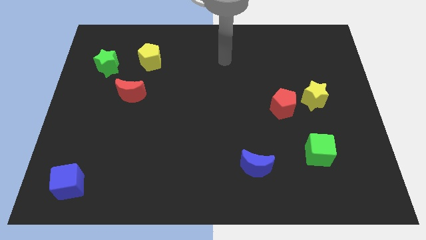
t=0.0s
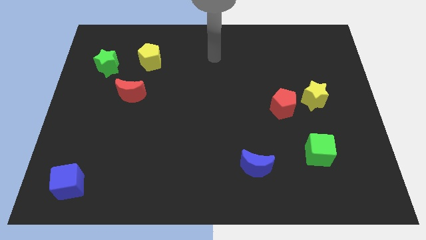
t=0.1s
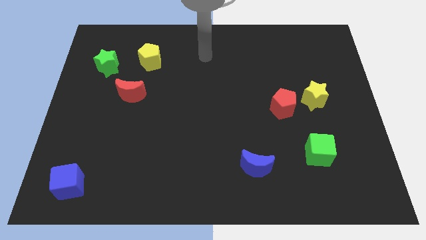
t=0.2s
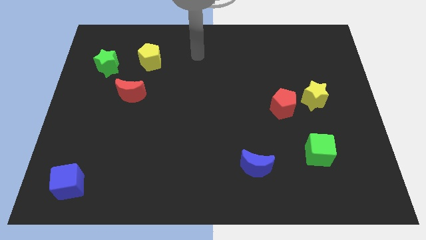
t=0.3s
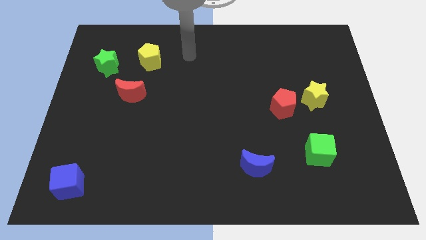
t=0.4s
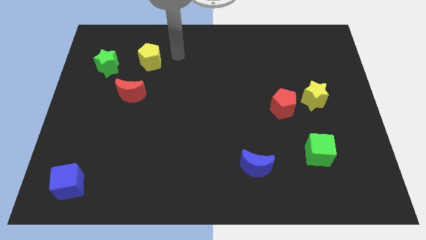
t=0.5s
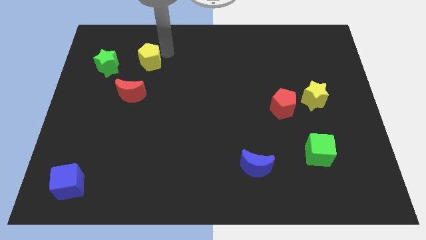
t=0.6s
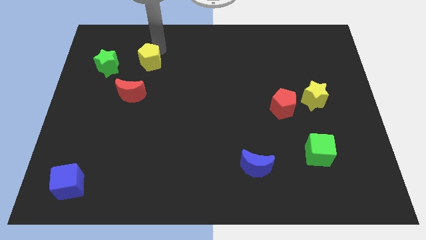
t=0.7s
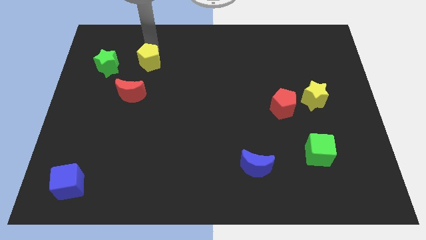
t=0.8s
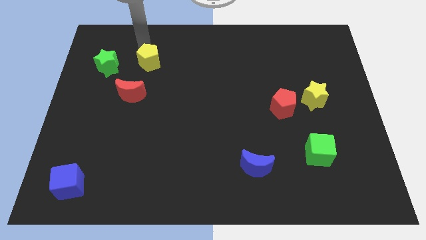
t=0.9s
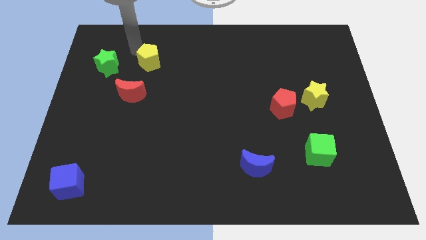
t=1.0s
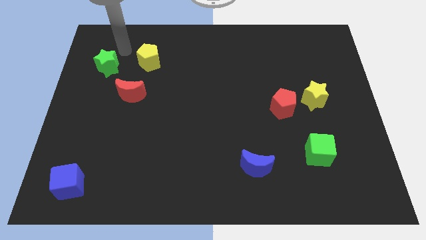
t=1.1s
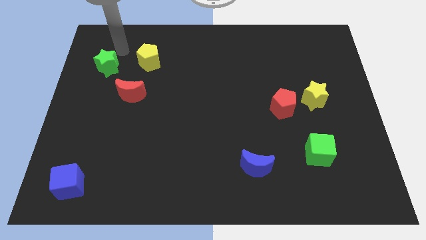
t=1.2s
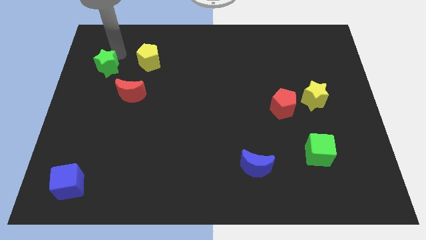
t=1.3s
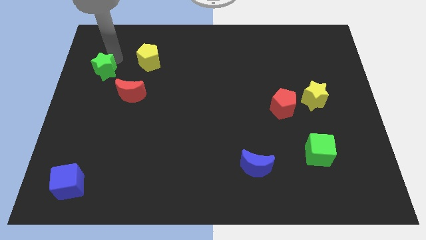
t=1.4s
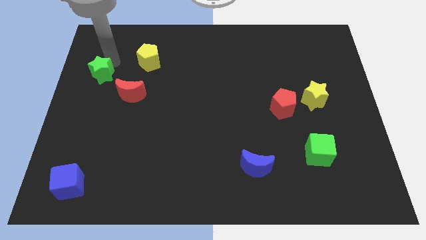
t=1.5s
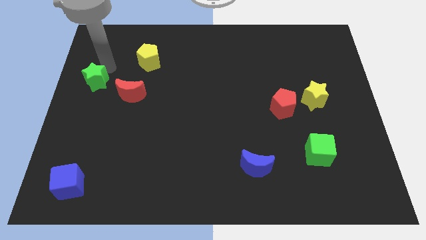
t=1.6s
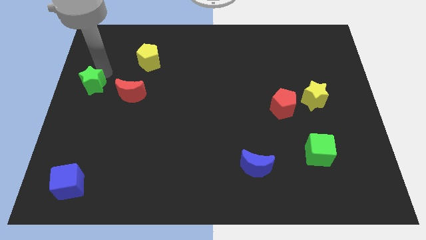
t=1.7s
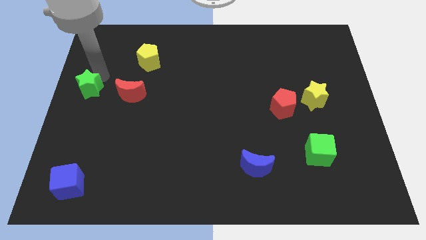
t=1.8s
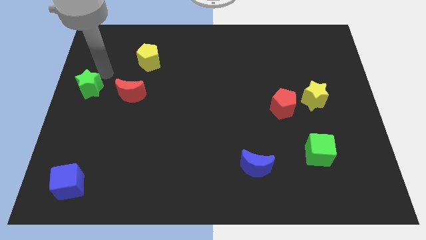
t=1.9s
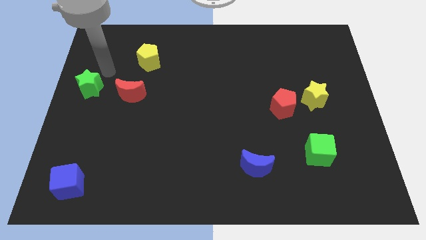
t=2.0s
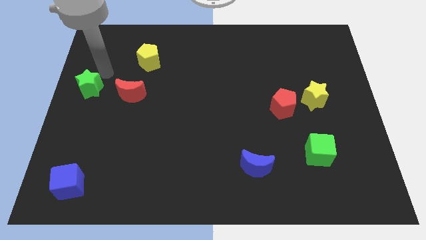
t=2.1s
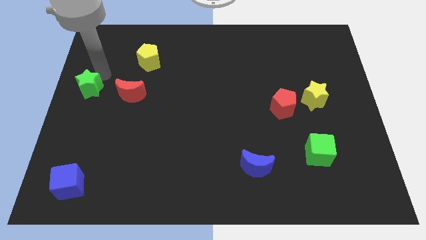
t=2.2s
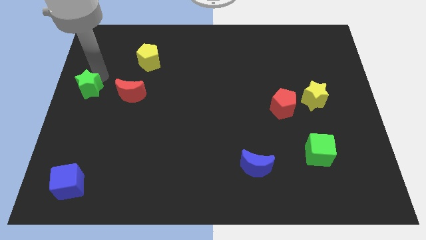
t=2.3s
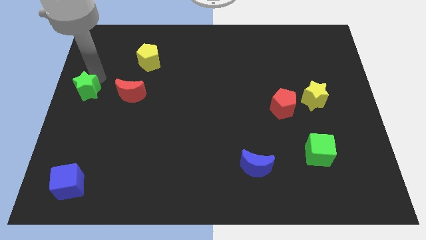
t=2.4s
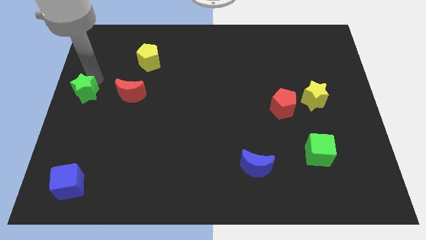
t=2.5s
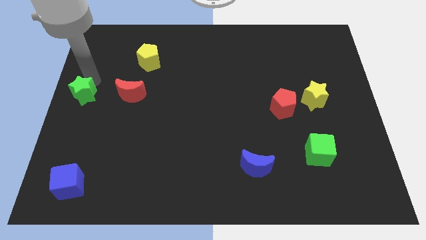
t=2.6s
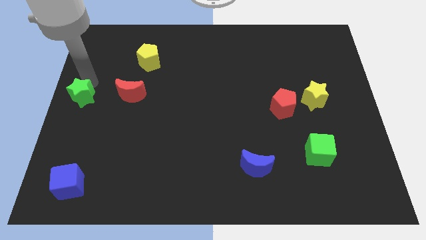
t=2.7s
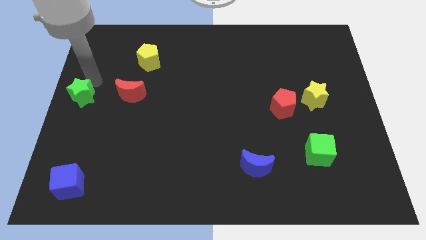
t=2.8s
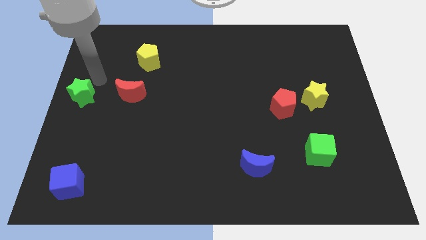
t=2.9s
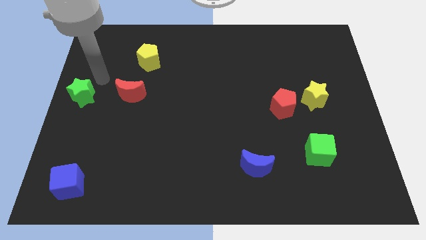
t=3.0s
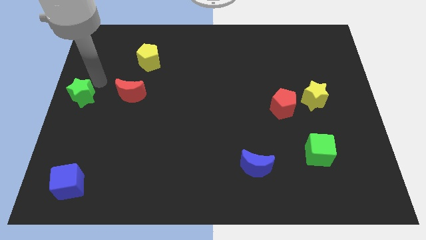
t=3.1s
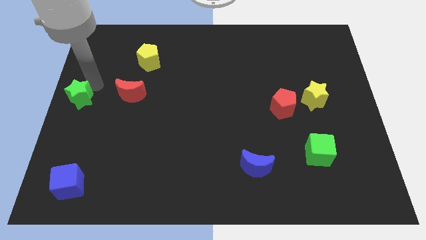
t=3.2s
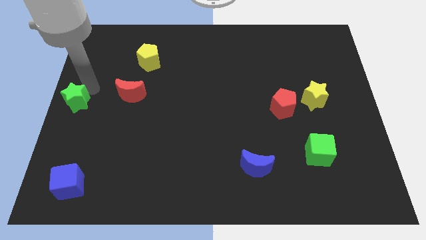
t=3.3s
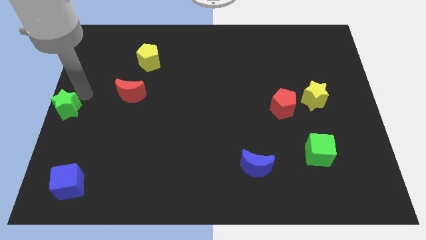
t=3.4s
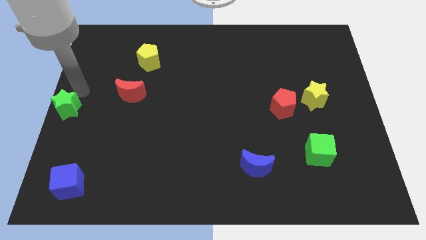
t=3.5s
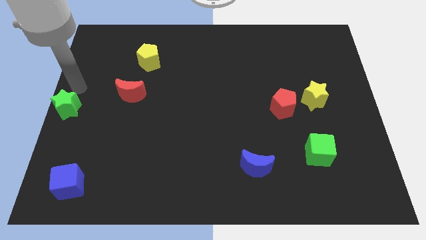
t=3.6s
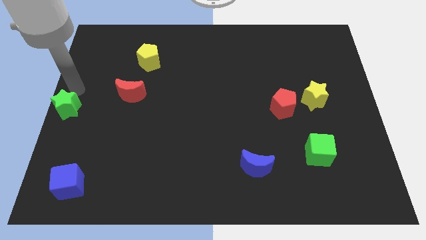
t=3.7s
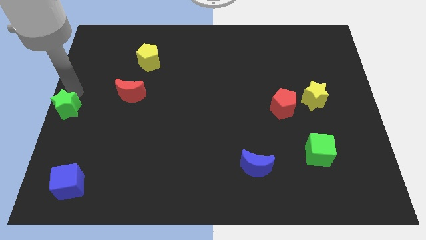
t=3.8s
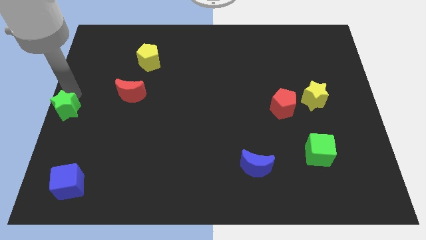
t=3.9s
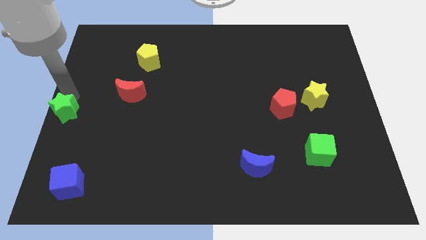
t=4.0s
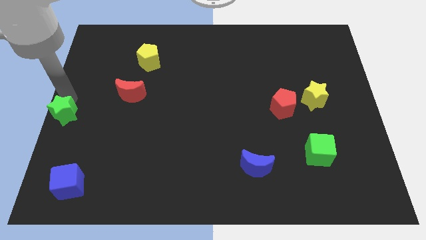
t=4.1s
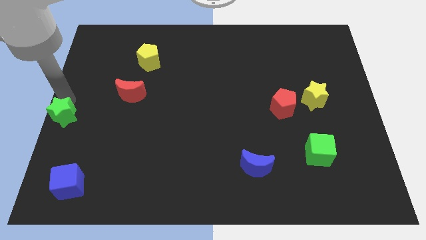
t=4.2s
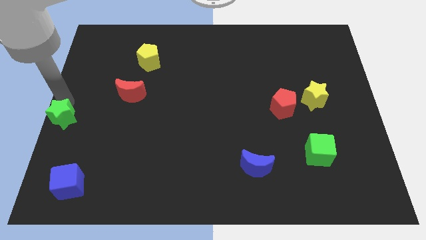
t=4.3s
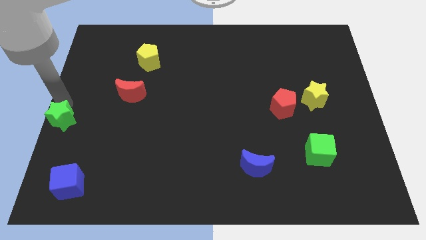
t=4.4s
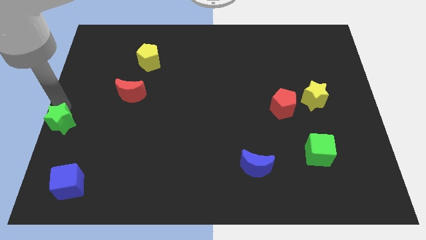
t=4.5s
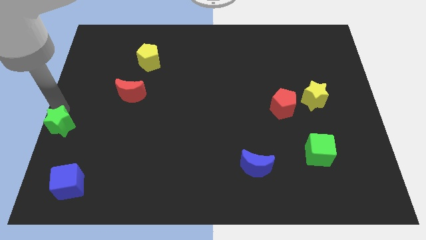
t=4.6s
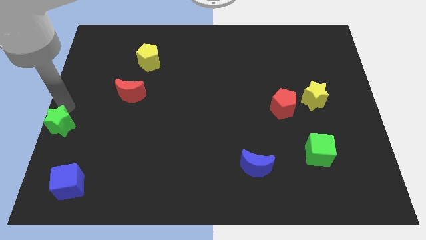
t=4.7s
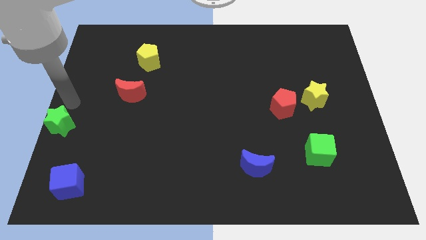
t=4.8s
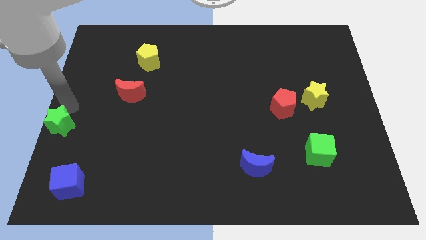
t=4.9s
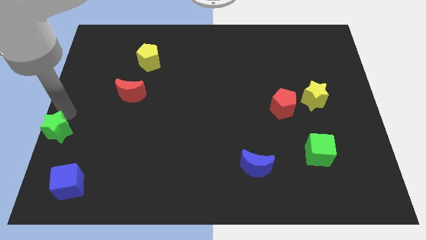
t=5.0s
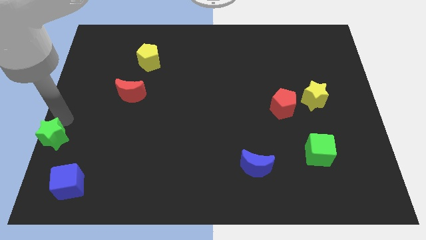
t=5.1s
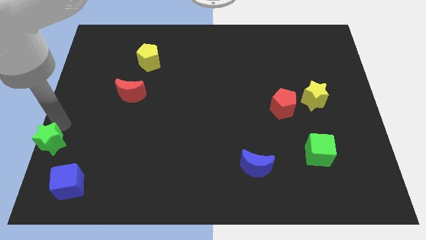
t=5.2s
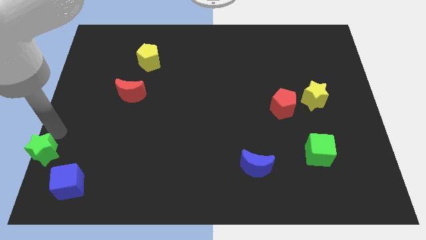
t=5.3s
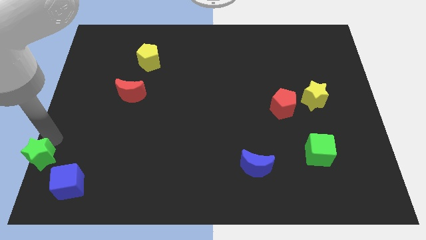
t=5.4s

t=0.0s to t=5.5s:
put the green star to the lower left corner
